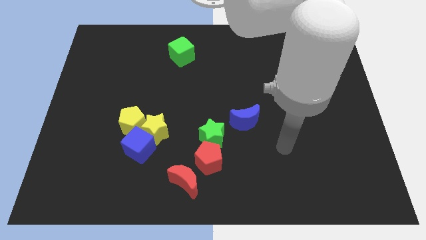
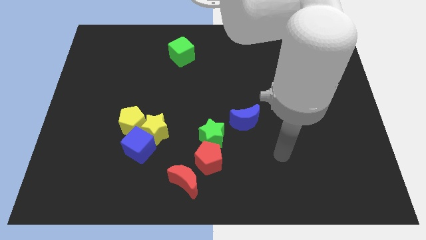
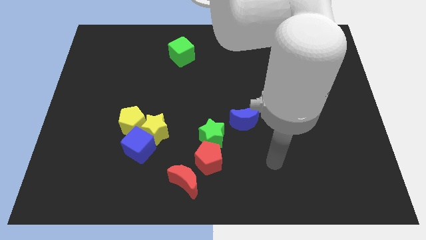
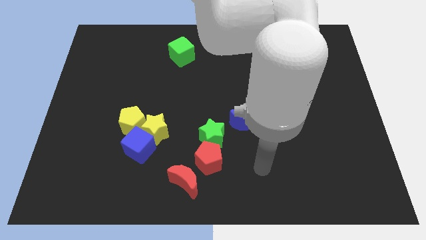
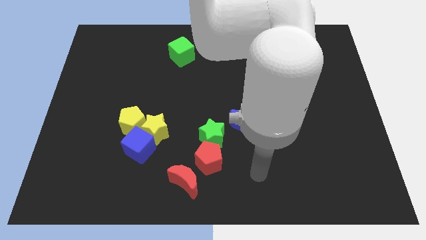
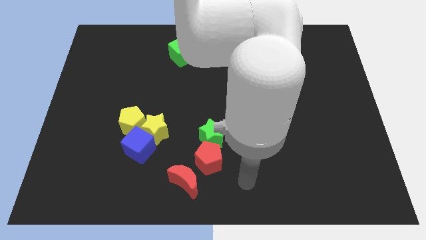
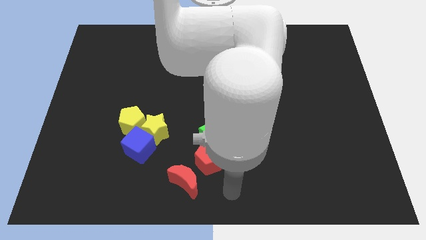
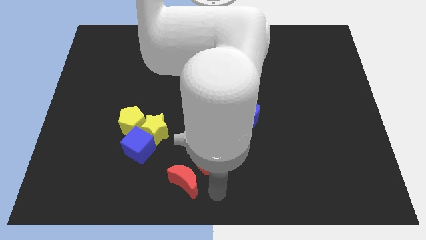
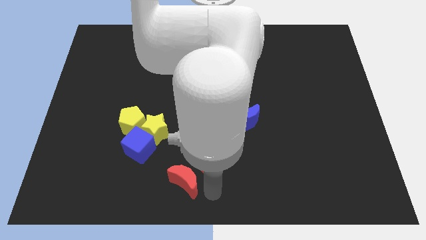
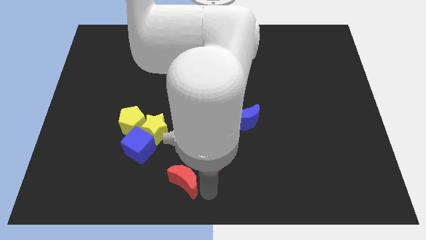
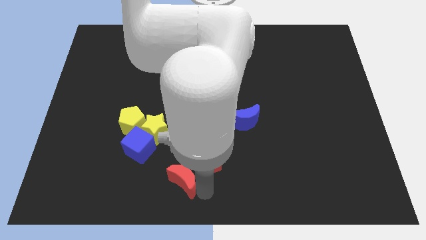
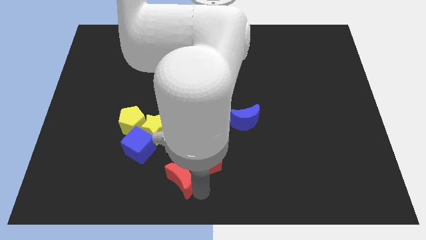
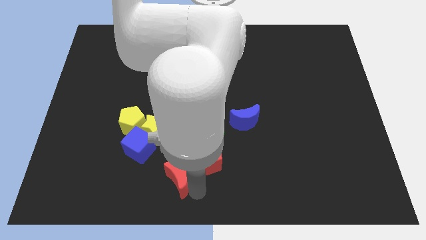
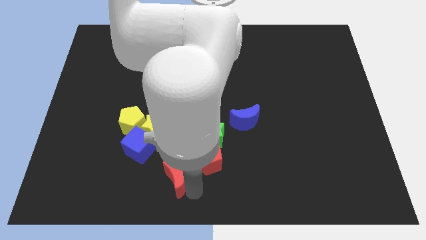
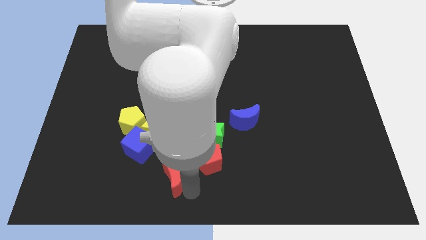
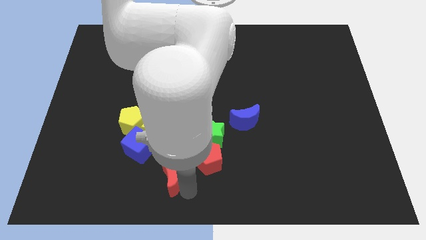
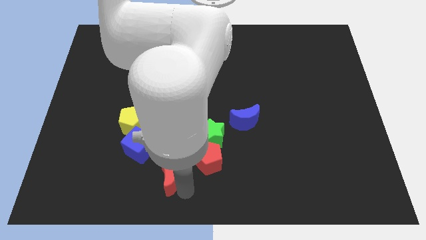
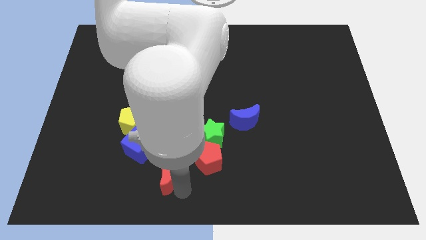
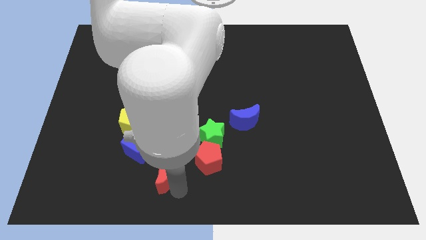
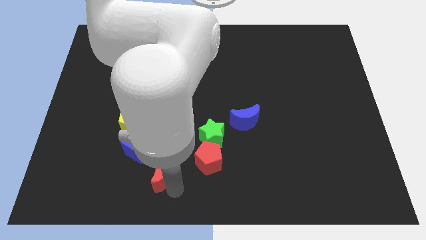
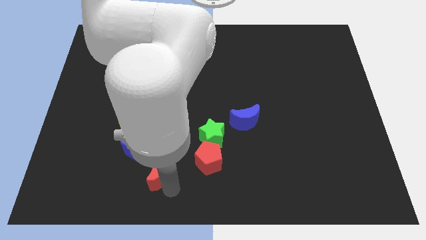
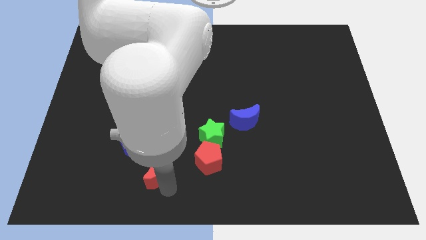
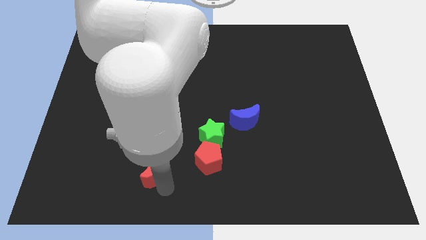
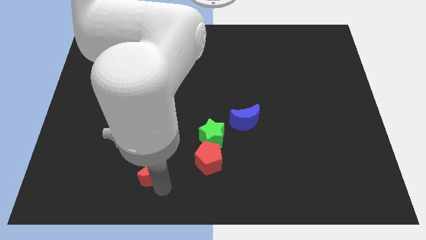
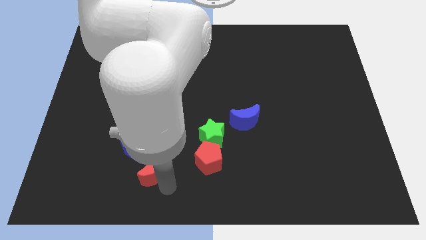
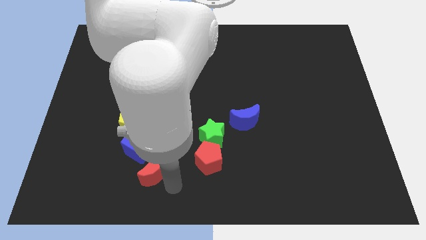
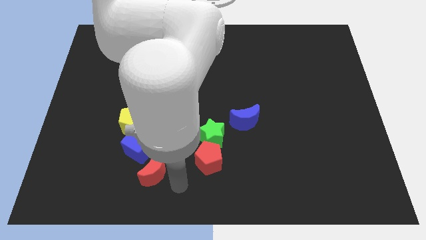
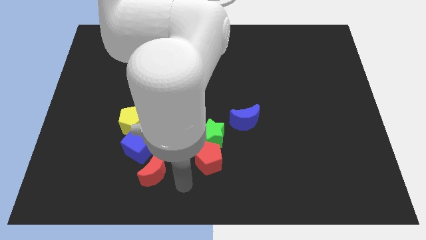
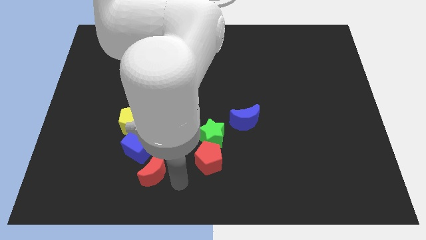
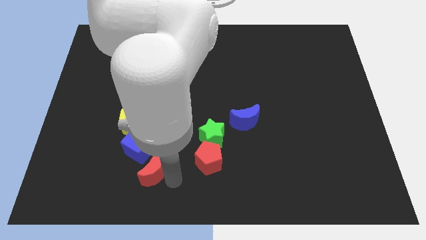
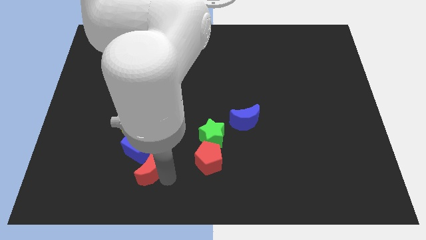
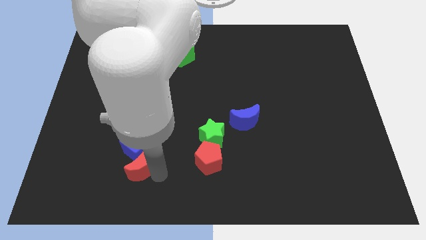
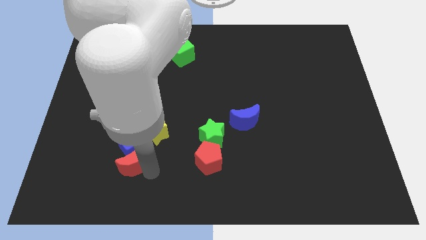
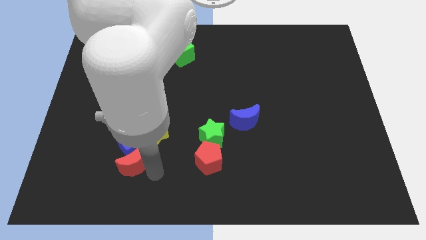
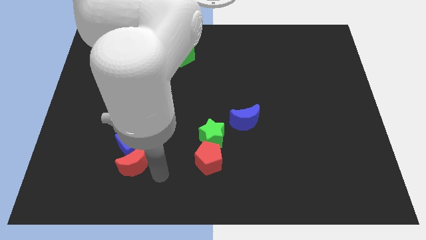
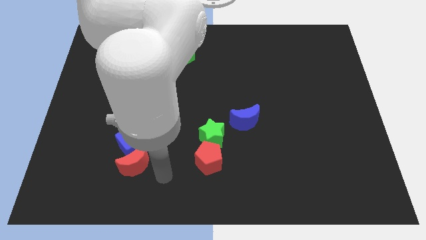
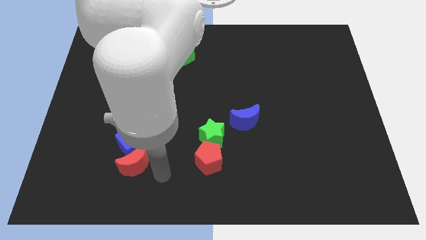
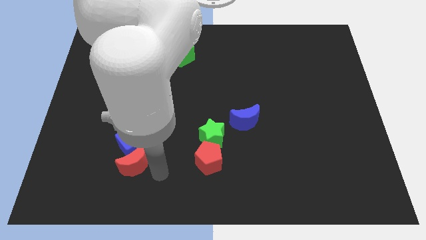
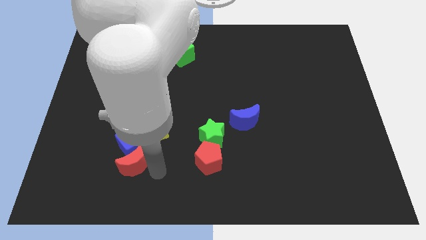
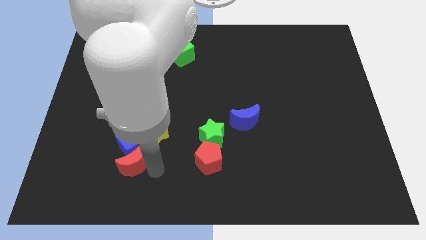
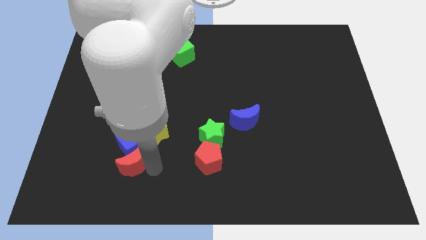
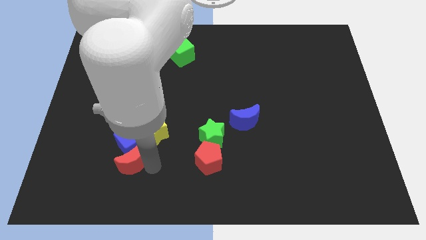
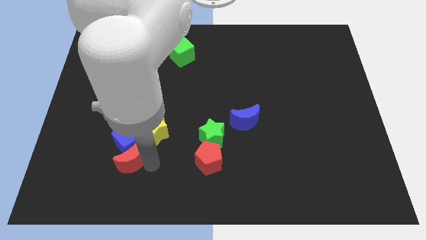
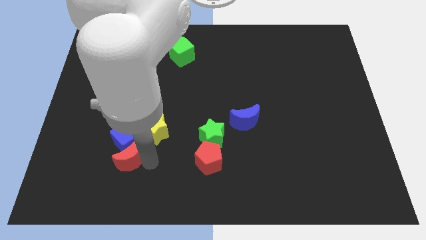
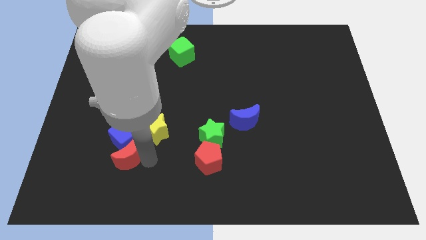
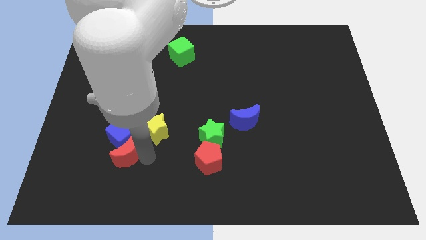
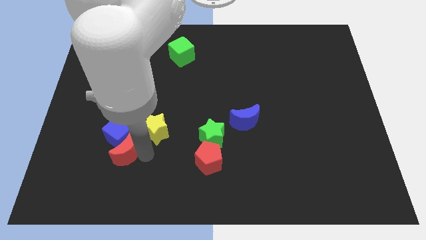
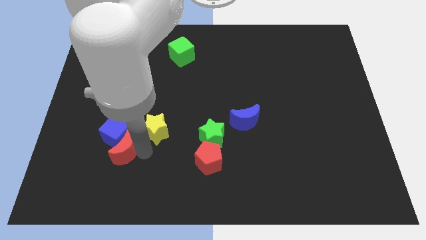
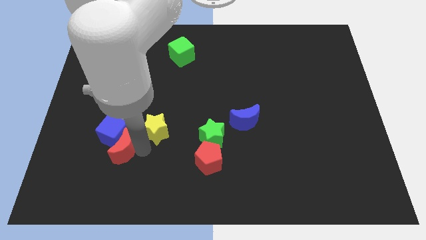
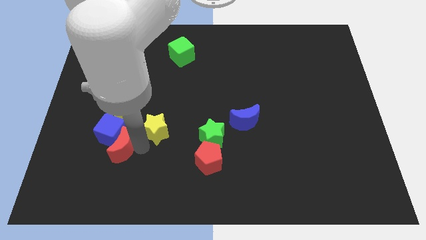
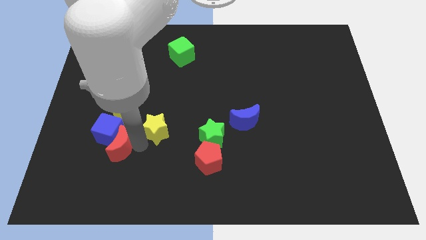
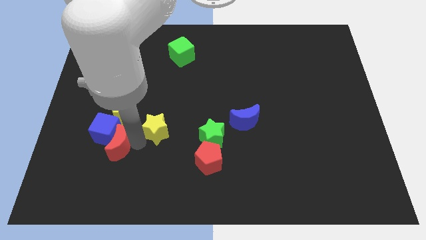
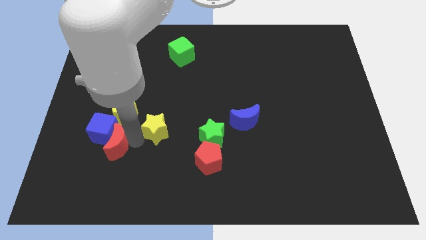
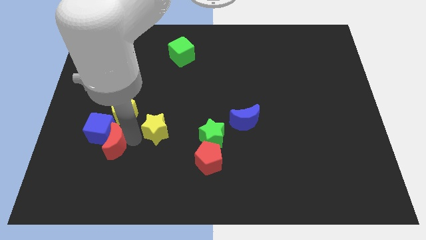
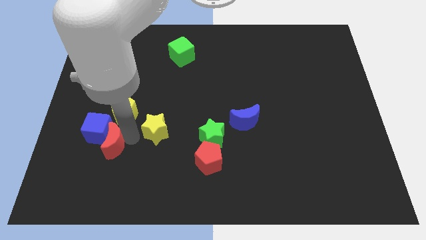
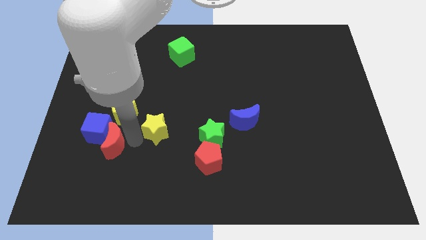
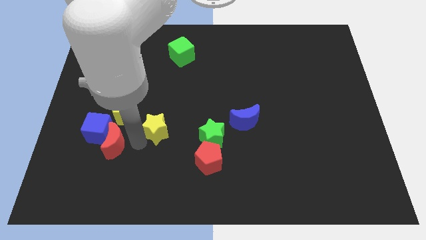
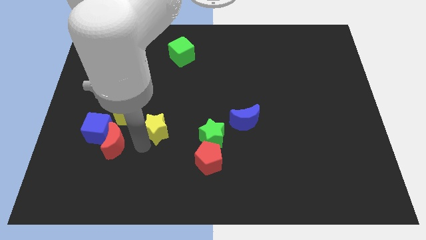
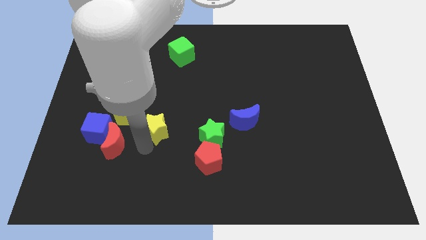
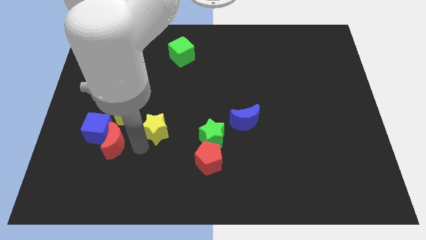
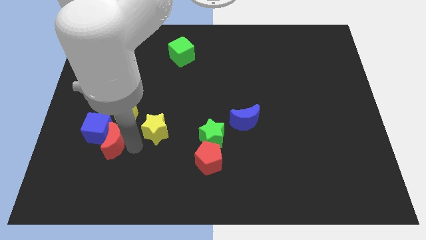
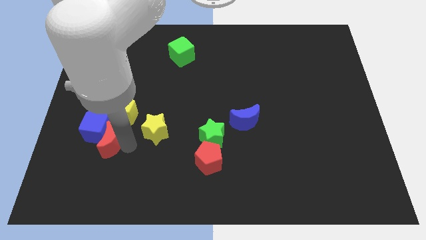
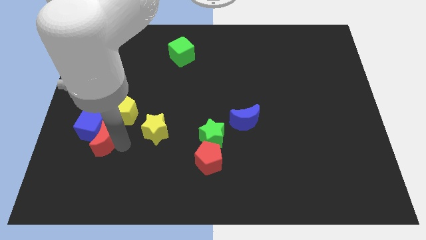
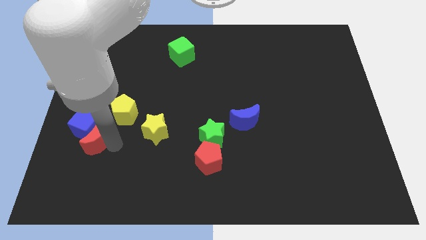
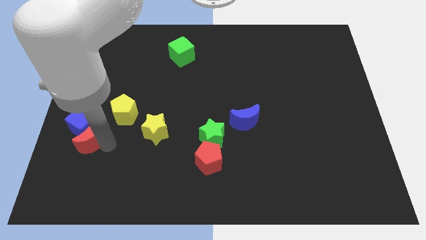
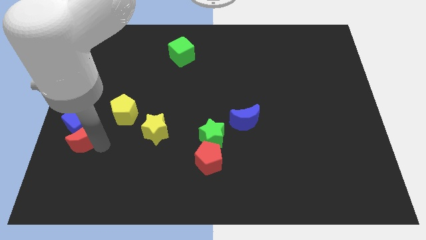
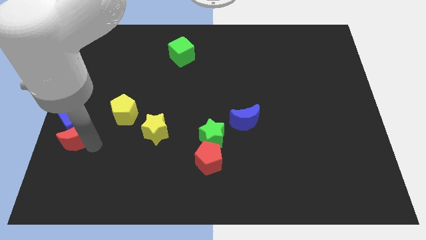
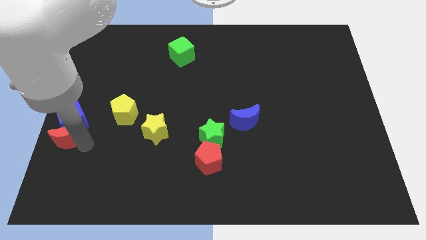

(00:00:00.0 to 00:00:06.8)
put the red moon to the center left
